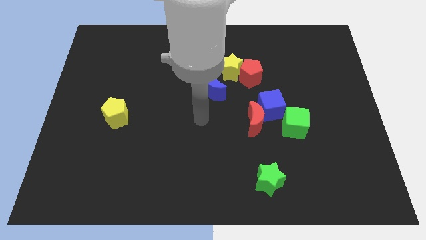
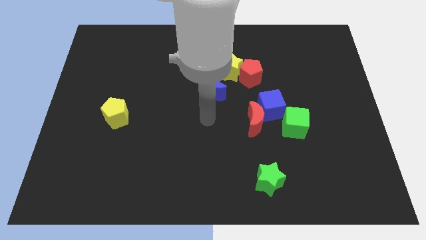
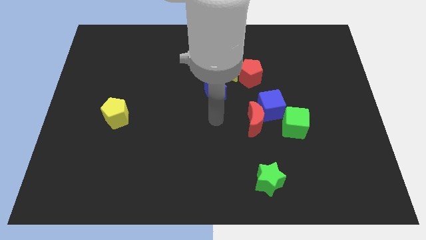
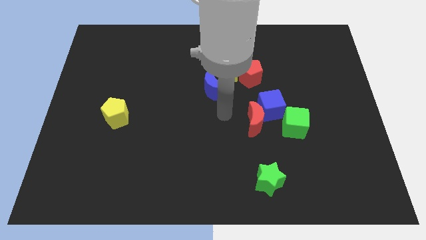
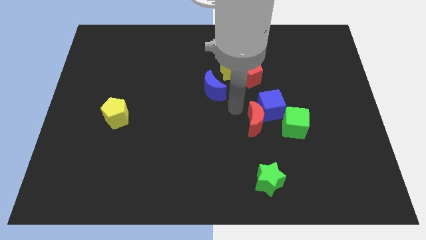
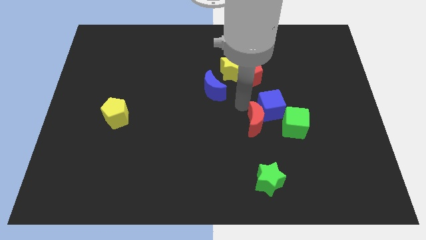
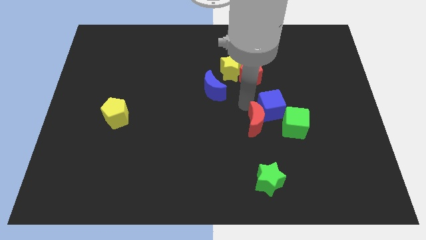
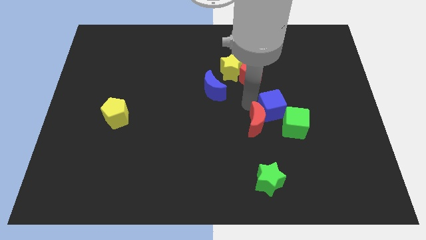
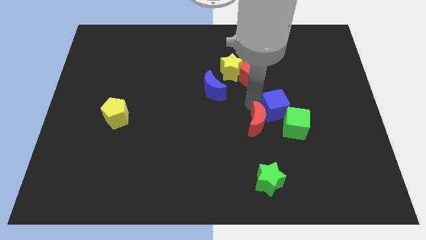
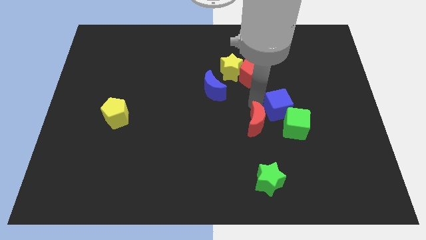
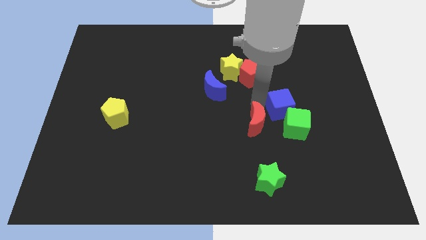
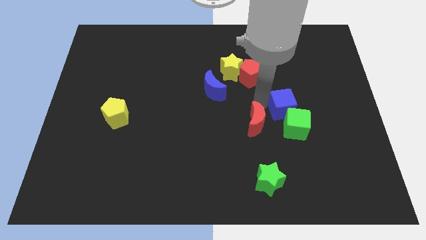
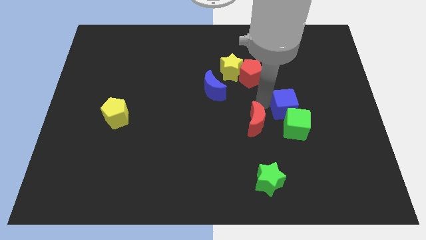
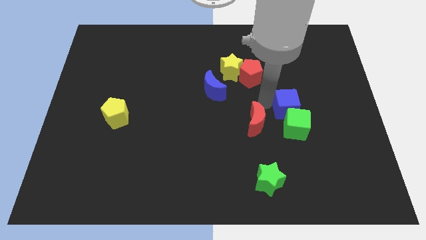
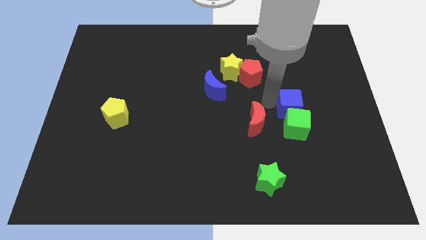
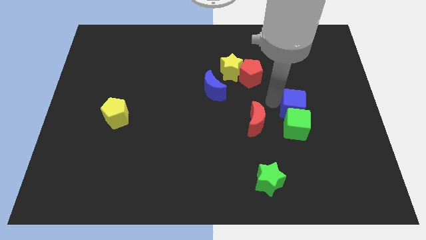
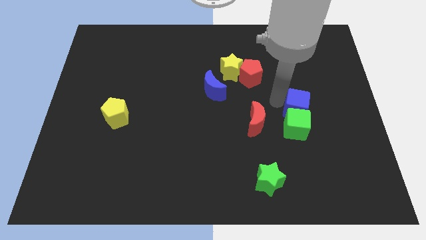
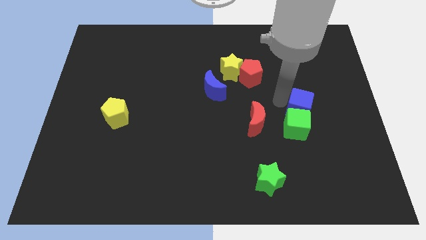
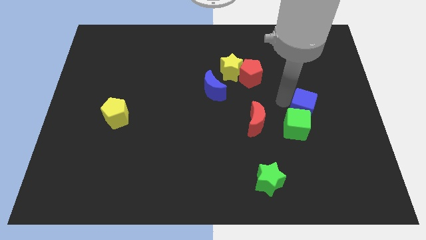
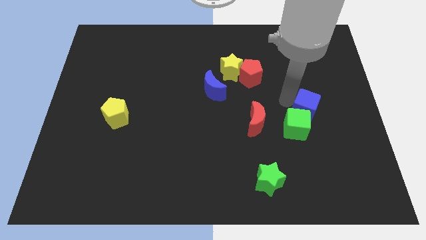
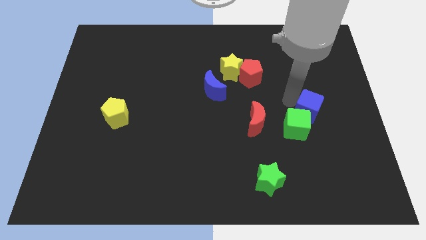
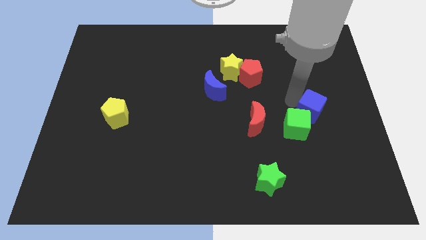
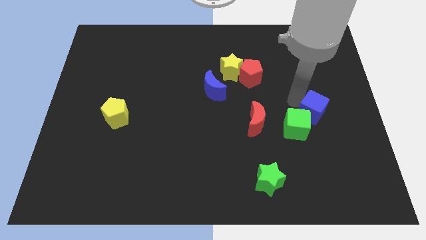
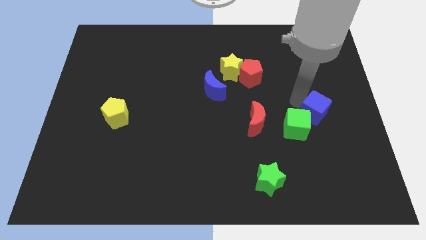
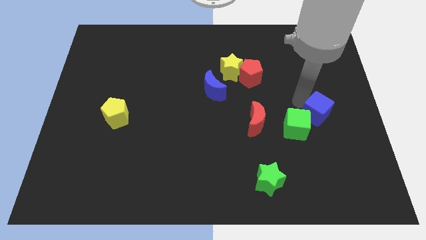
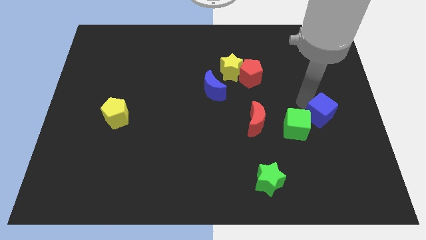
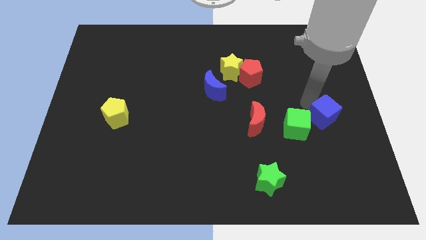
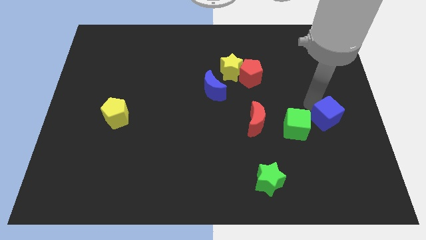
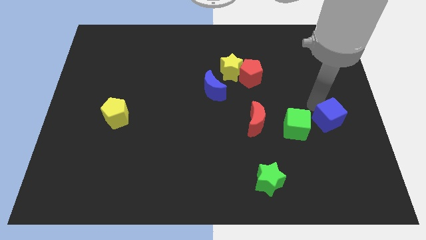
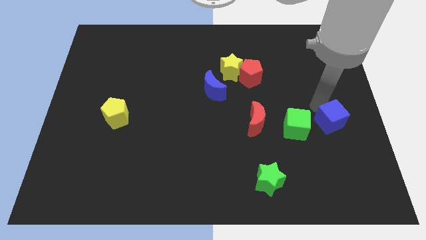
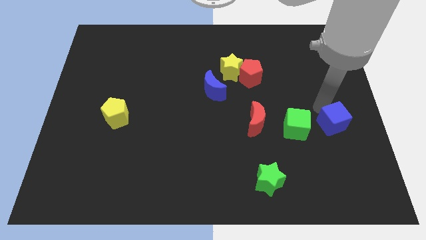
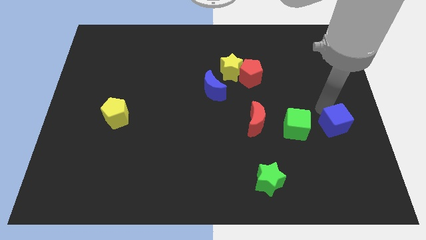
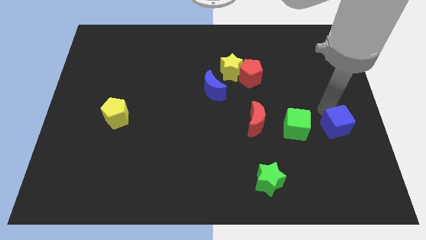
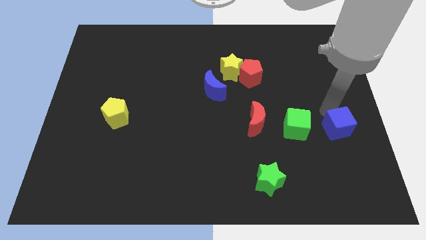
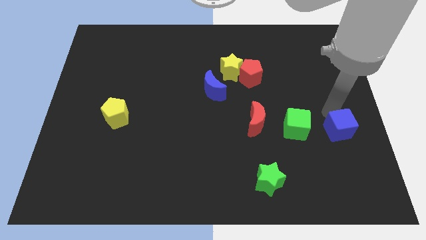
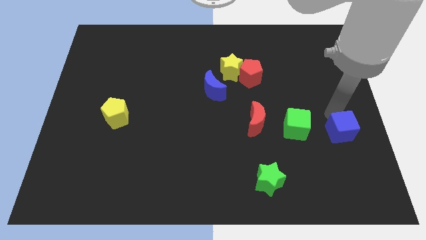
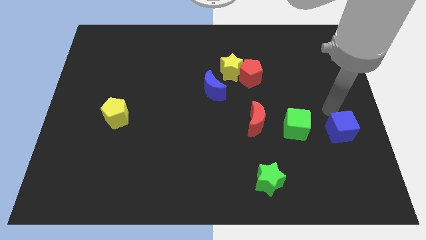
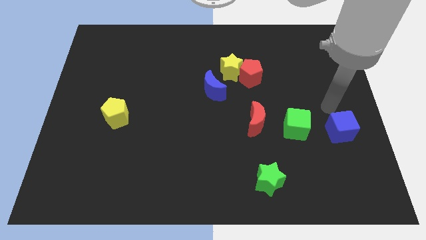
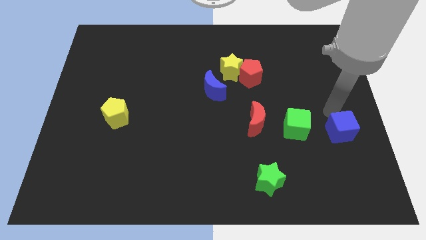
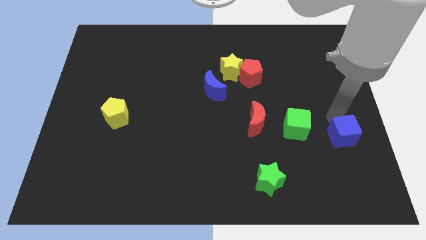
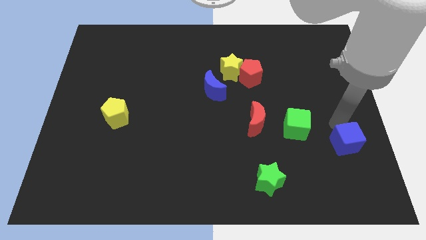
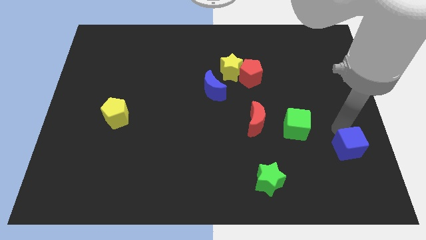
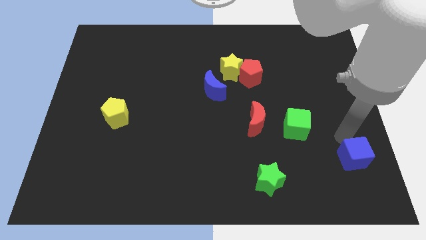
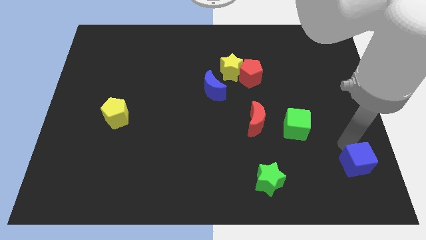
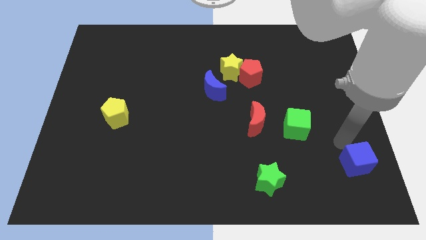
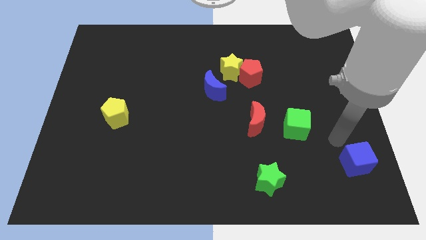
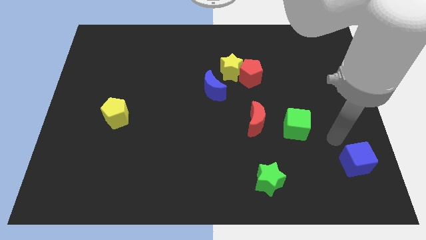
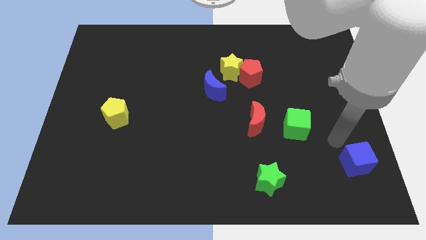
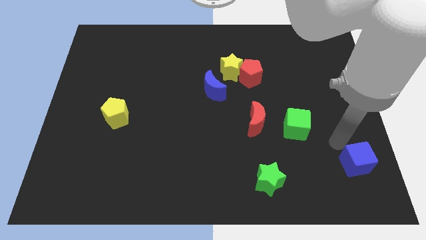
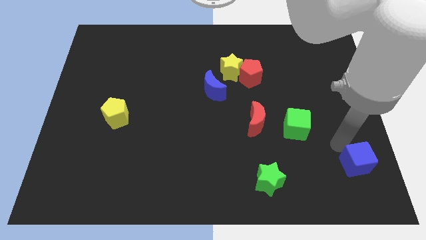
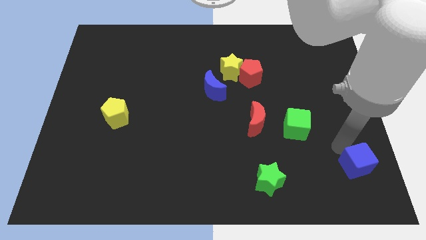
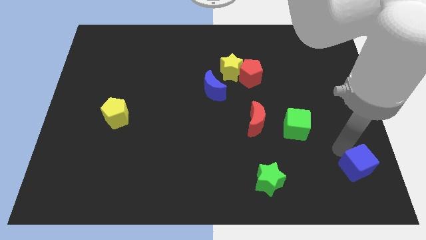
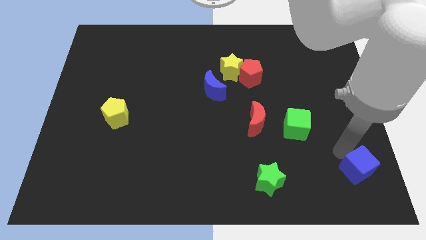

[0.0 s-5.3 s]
move the blue cube to the lower right corner
